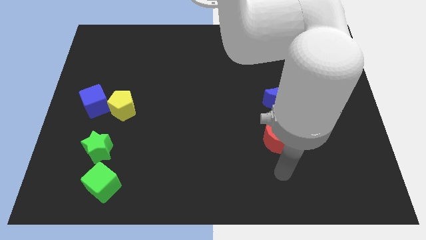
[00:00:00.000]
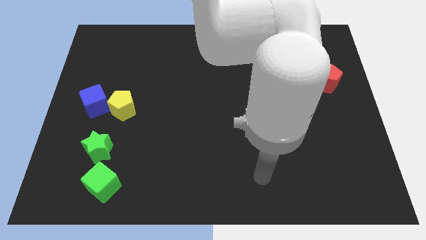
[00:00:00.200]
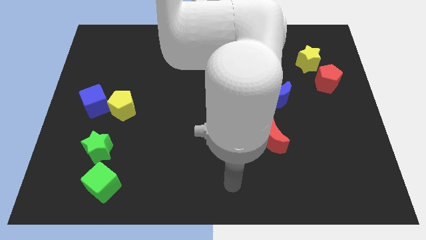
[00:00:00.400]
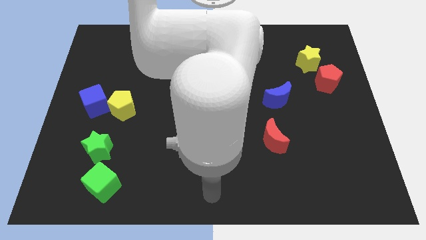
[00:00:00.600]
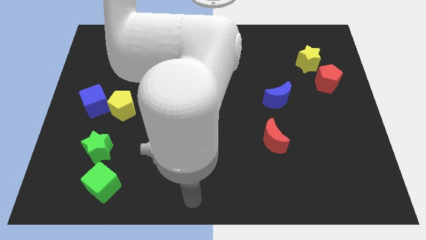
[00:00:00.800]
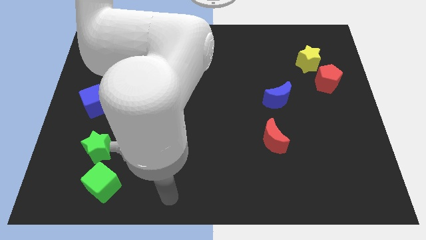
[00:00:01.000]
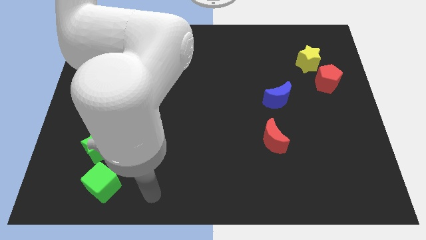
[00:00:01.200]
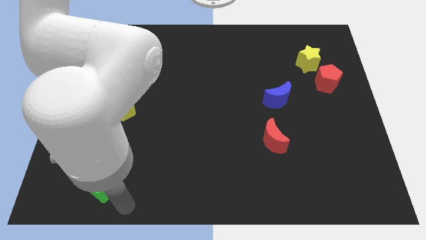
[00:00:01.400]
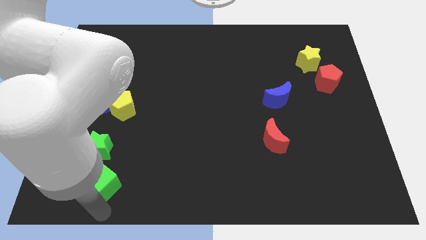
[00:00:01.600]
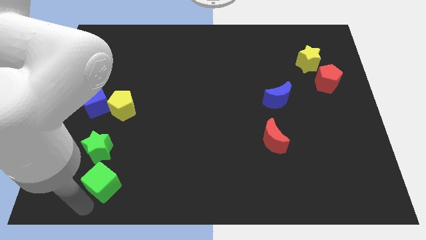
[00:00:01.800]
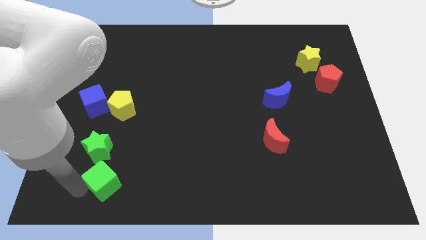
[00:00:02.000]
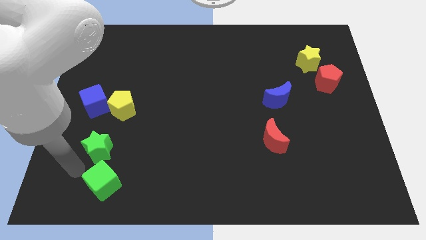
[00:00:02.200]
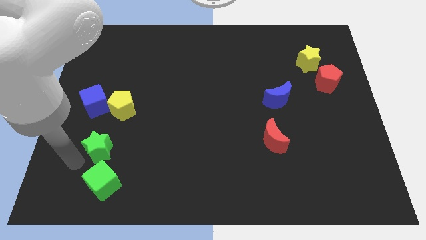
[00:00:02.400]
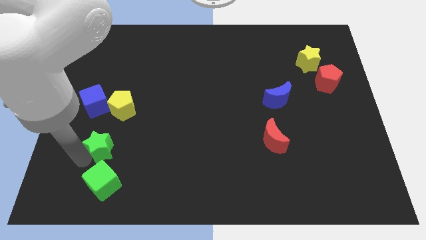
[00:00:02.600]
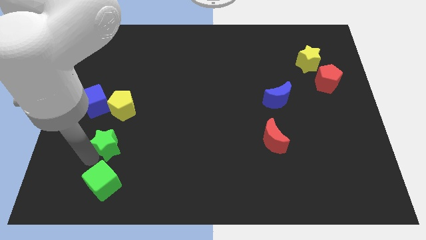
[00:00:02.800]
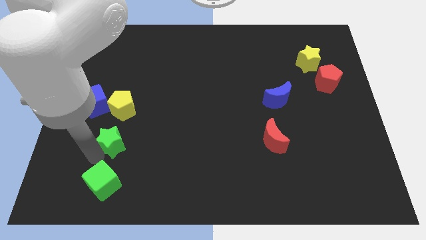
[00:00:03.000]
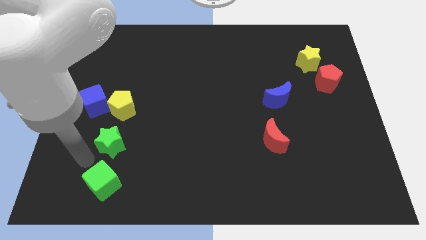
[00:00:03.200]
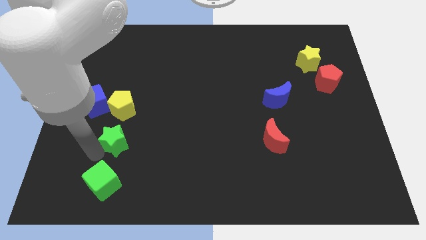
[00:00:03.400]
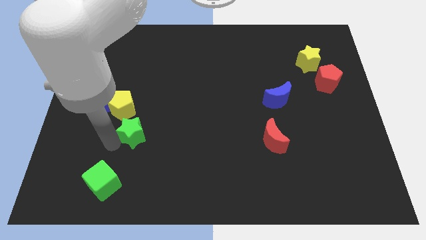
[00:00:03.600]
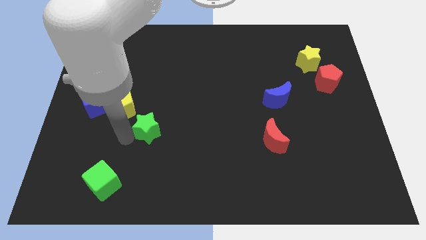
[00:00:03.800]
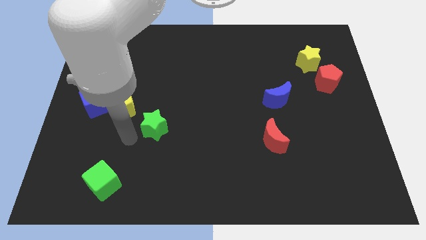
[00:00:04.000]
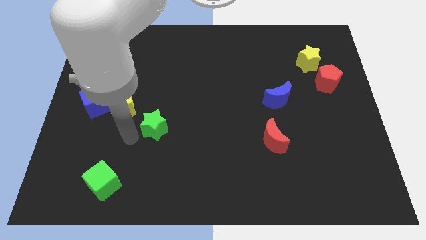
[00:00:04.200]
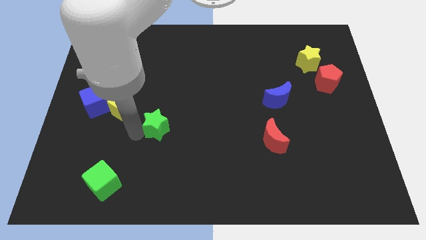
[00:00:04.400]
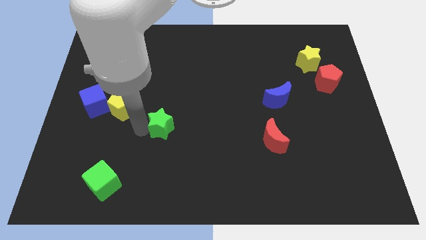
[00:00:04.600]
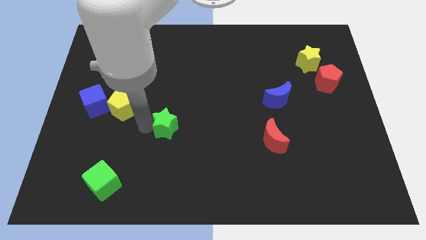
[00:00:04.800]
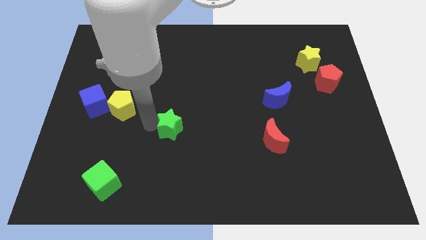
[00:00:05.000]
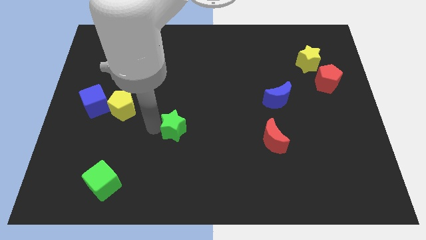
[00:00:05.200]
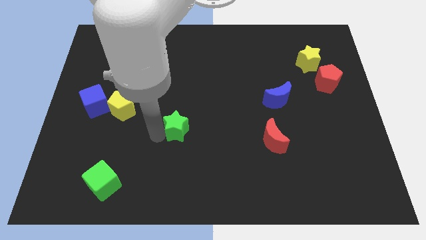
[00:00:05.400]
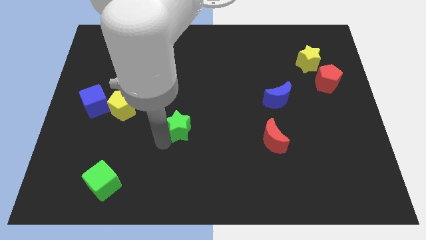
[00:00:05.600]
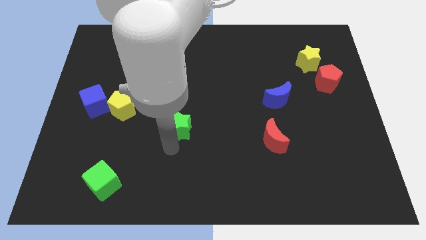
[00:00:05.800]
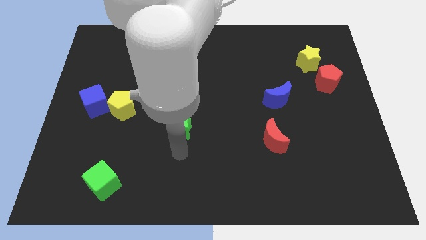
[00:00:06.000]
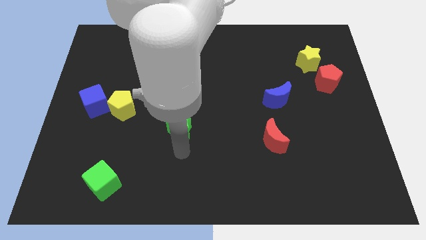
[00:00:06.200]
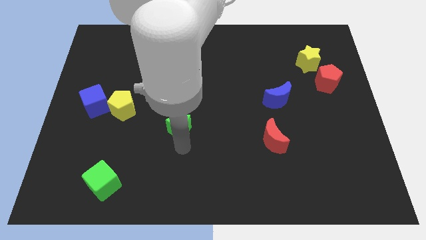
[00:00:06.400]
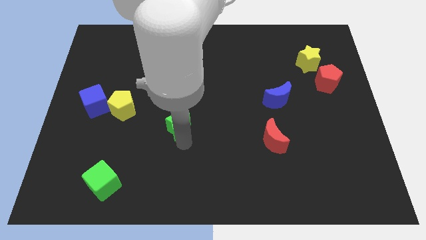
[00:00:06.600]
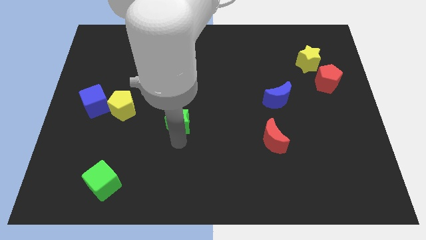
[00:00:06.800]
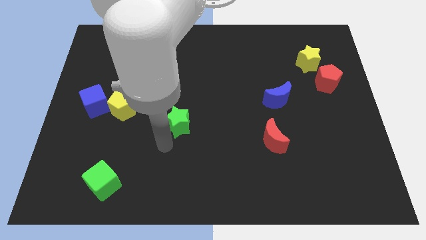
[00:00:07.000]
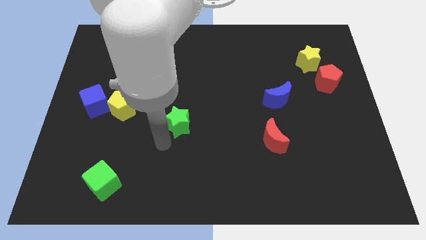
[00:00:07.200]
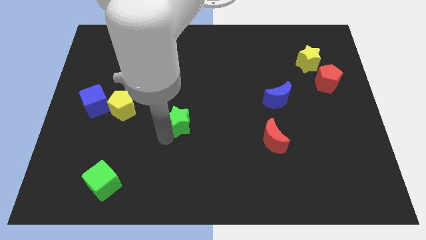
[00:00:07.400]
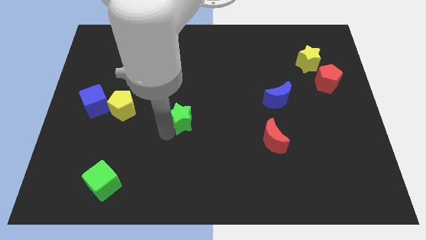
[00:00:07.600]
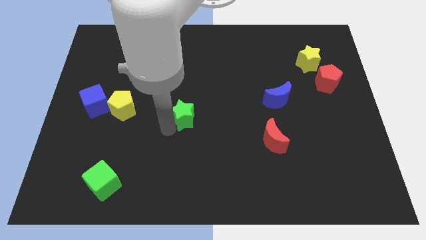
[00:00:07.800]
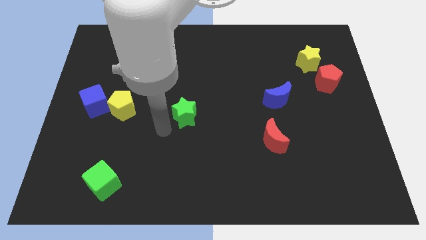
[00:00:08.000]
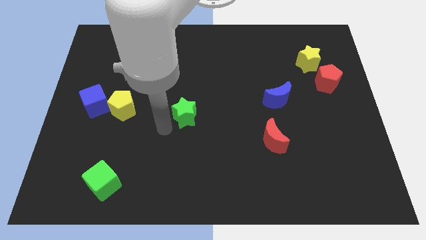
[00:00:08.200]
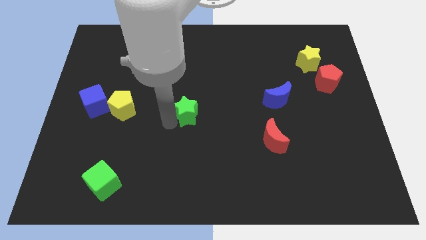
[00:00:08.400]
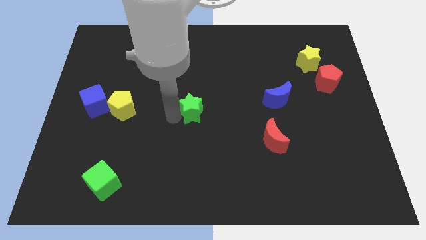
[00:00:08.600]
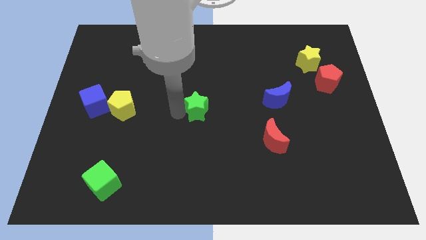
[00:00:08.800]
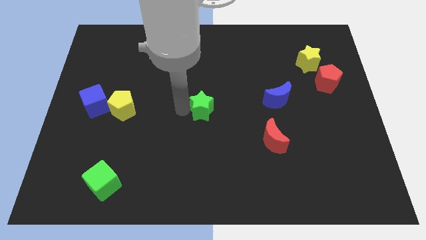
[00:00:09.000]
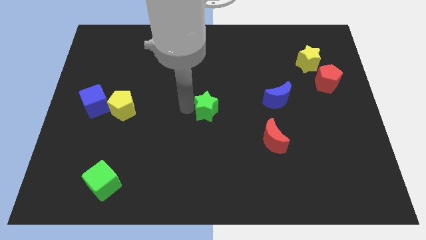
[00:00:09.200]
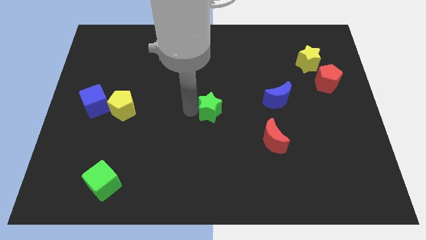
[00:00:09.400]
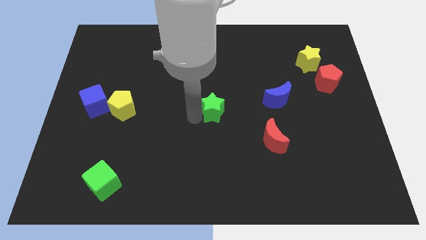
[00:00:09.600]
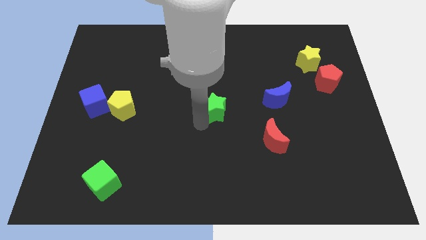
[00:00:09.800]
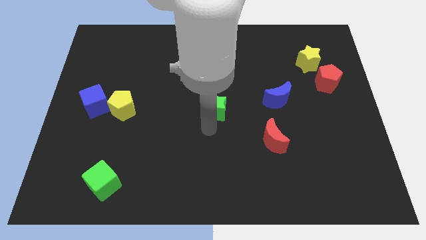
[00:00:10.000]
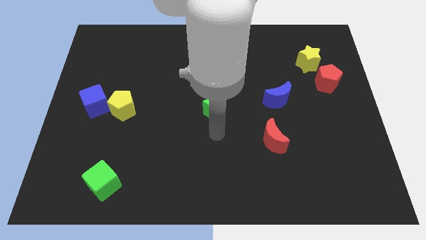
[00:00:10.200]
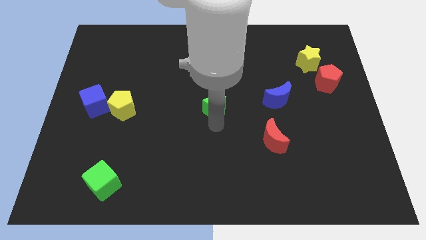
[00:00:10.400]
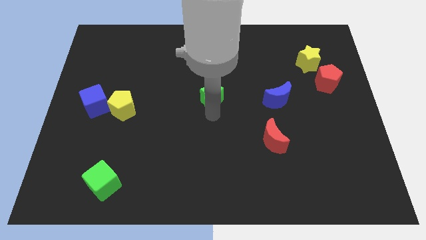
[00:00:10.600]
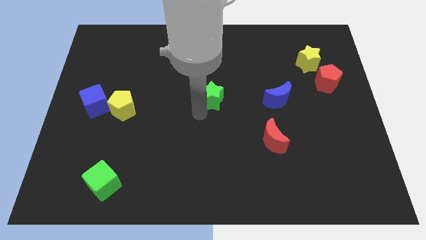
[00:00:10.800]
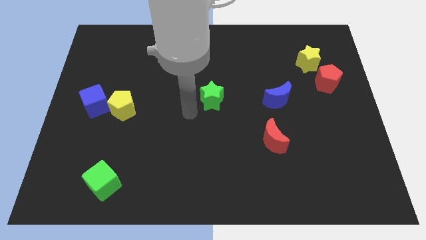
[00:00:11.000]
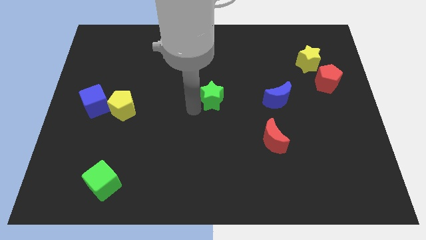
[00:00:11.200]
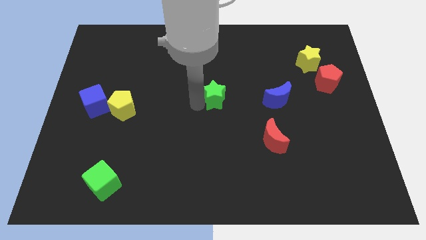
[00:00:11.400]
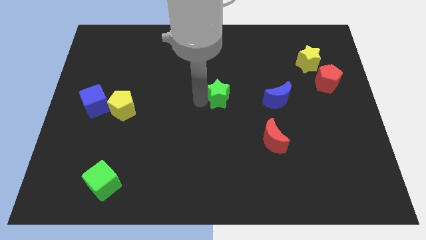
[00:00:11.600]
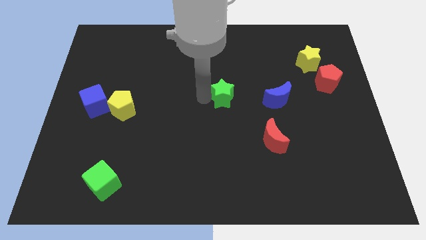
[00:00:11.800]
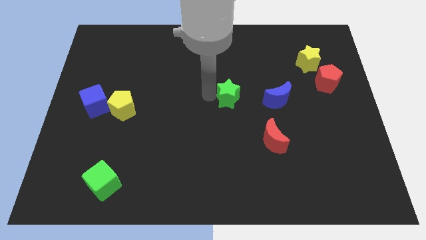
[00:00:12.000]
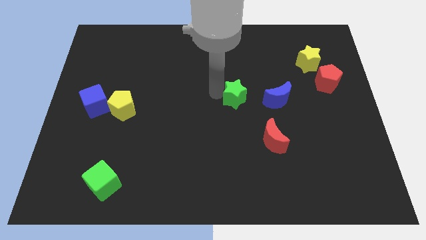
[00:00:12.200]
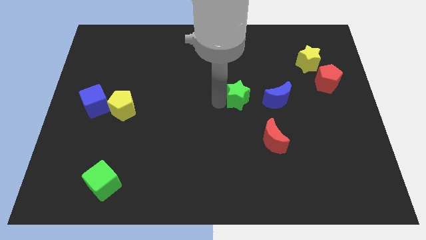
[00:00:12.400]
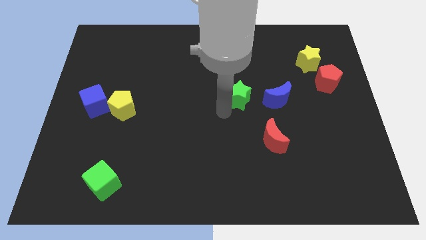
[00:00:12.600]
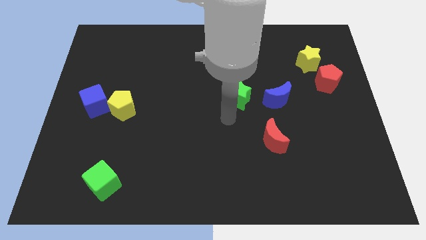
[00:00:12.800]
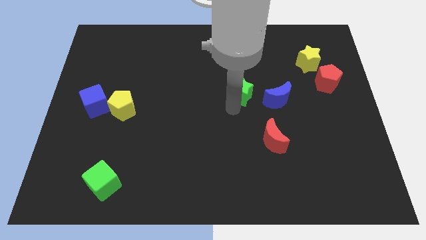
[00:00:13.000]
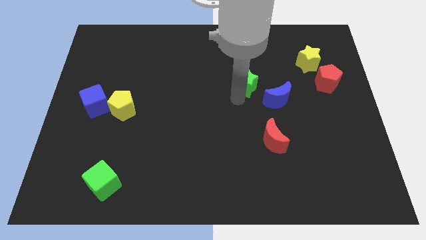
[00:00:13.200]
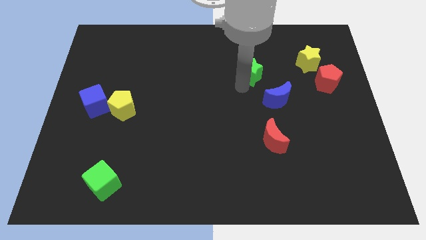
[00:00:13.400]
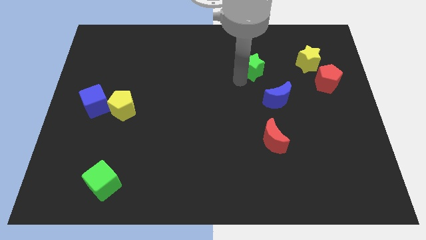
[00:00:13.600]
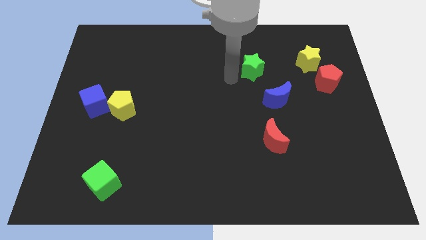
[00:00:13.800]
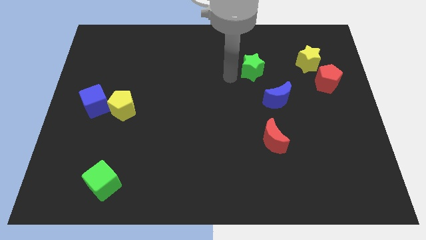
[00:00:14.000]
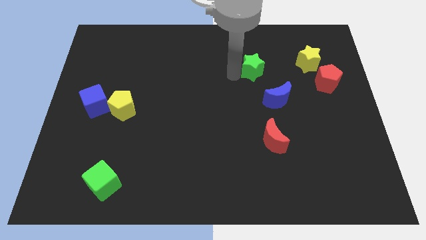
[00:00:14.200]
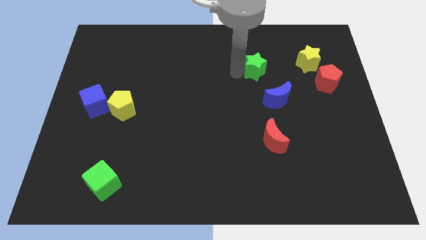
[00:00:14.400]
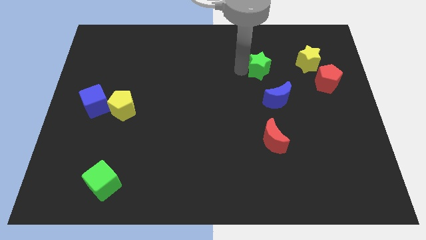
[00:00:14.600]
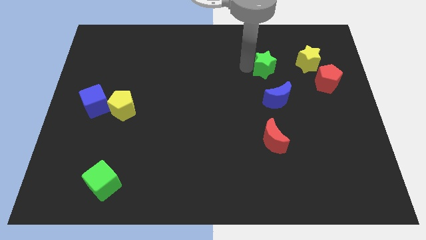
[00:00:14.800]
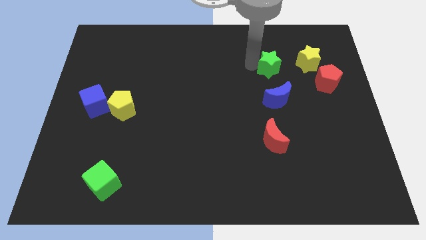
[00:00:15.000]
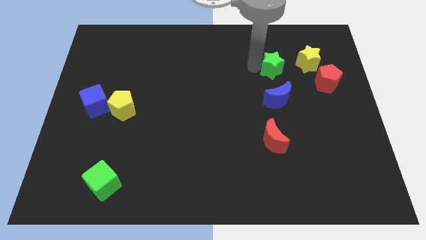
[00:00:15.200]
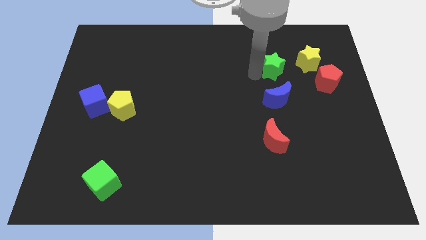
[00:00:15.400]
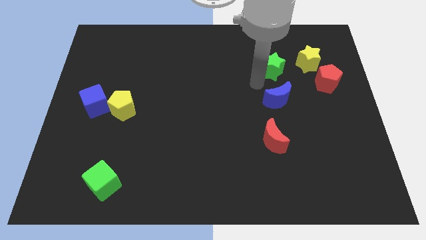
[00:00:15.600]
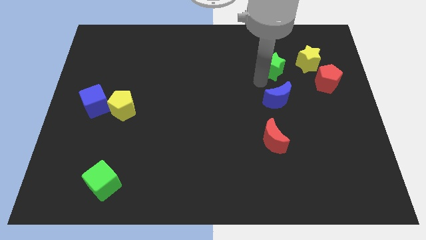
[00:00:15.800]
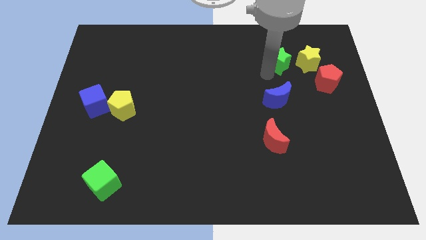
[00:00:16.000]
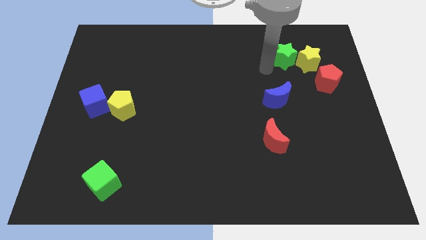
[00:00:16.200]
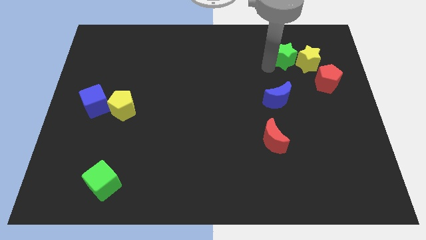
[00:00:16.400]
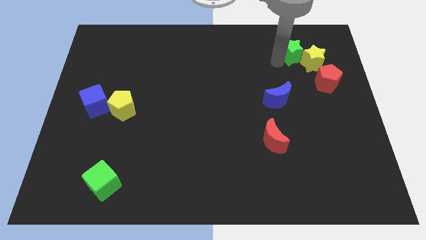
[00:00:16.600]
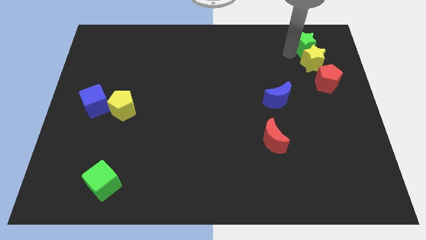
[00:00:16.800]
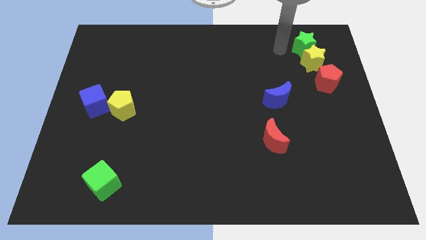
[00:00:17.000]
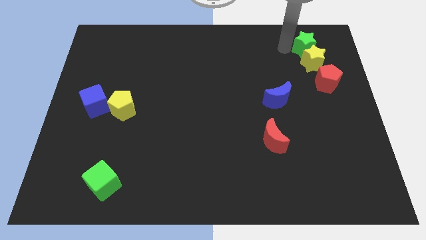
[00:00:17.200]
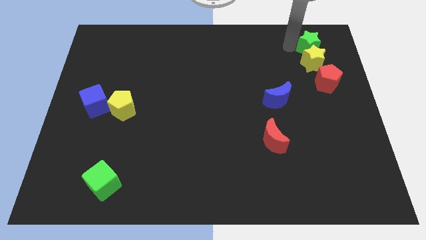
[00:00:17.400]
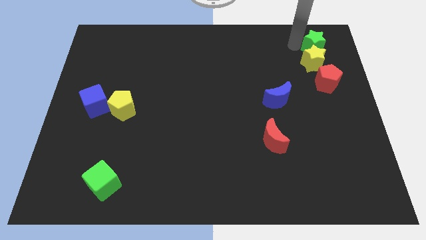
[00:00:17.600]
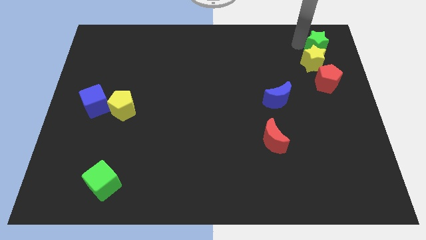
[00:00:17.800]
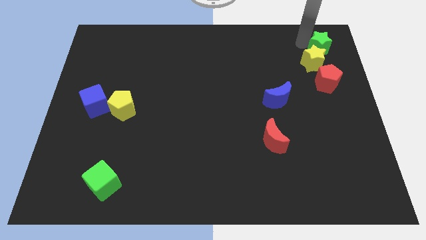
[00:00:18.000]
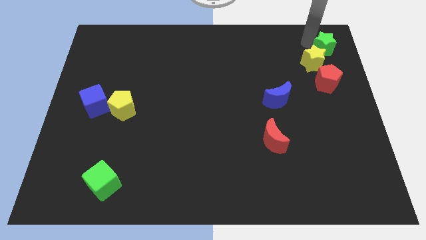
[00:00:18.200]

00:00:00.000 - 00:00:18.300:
put the green star to the upper right corner
